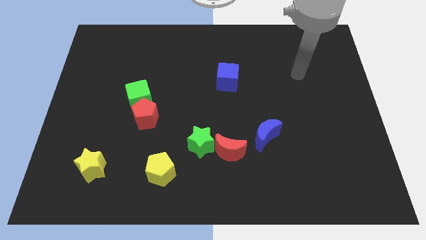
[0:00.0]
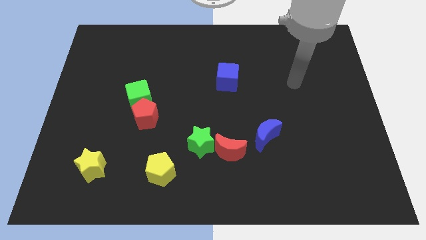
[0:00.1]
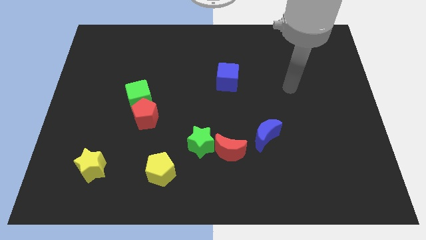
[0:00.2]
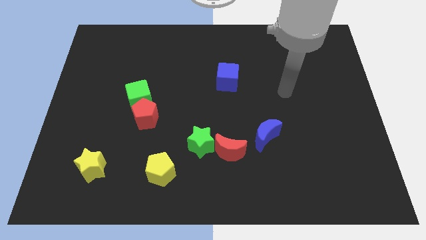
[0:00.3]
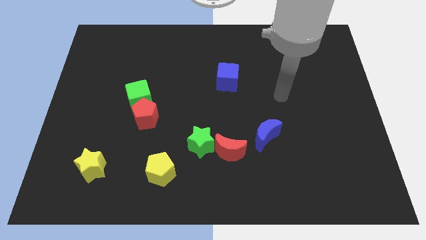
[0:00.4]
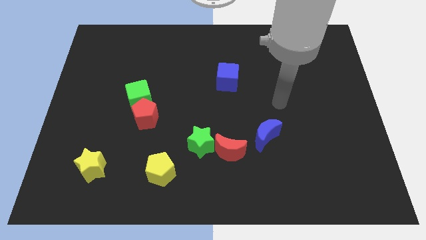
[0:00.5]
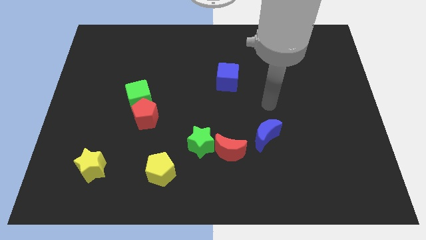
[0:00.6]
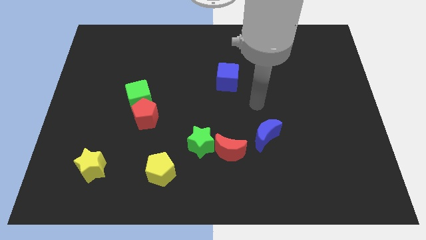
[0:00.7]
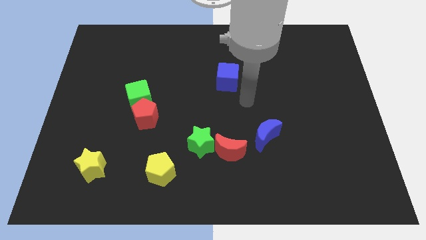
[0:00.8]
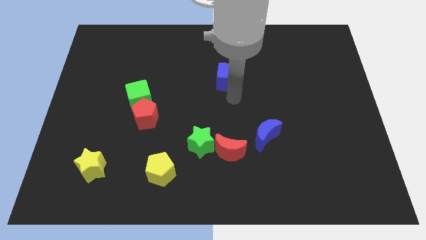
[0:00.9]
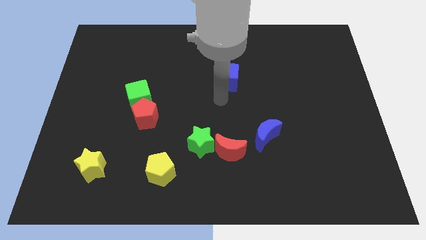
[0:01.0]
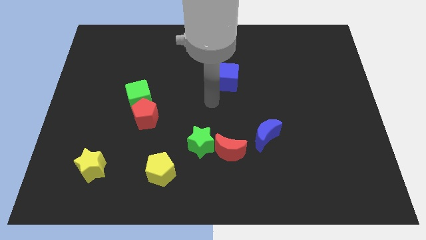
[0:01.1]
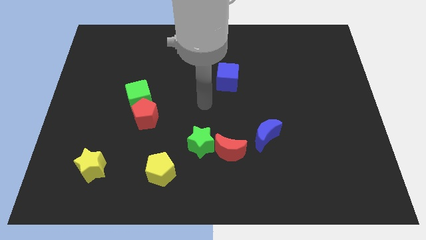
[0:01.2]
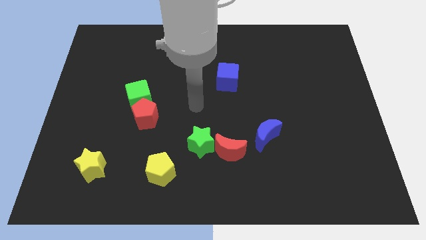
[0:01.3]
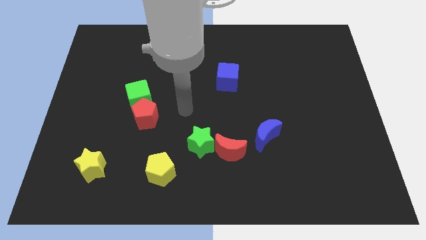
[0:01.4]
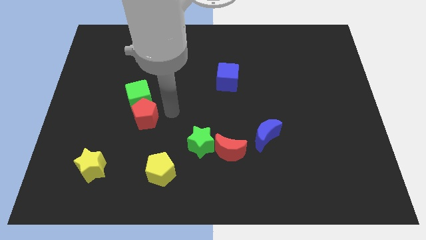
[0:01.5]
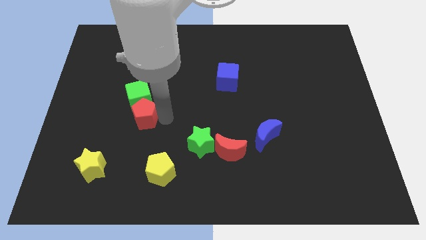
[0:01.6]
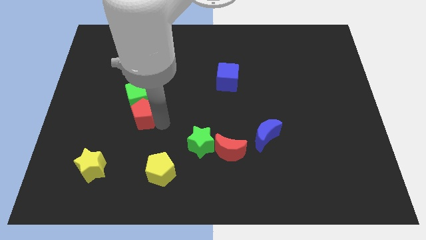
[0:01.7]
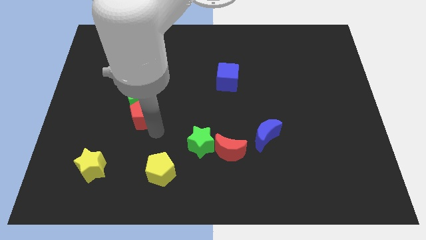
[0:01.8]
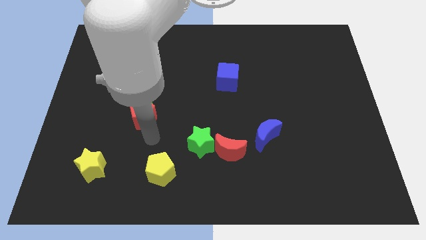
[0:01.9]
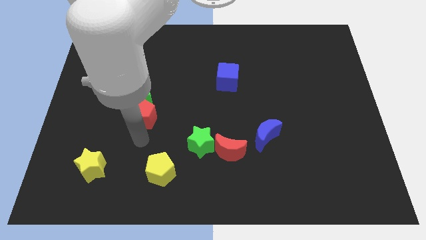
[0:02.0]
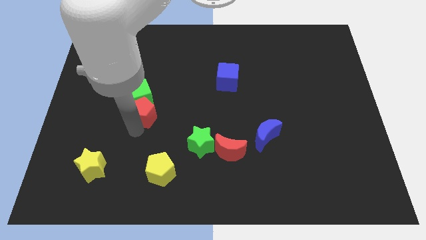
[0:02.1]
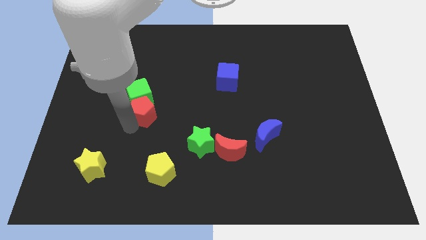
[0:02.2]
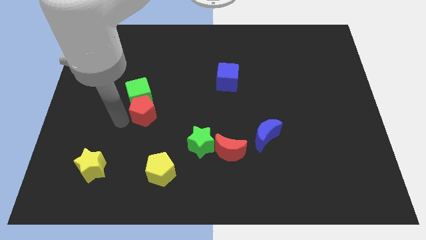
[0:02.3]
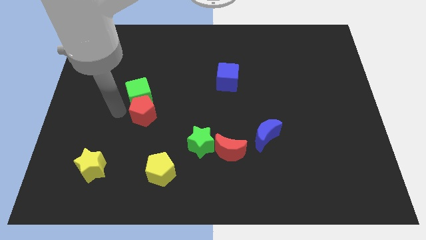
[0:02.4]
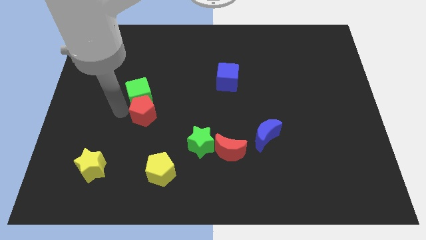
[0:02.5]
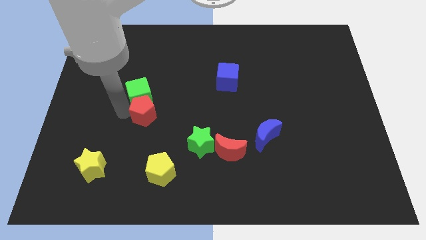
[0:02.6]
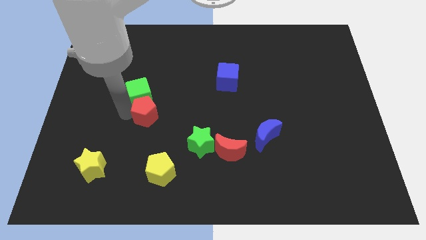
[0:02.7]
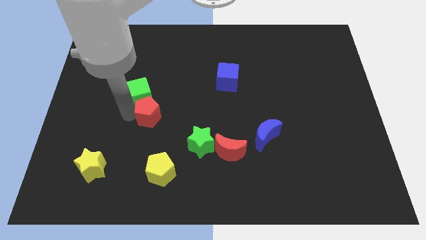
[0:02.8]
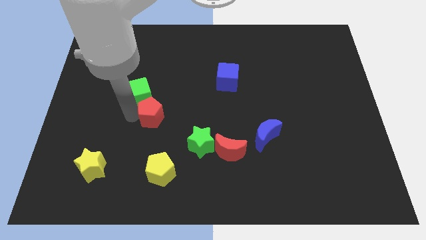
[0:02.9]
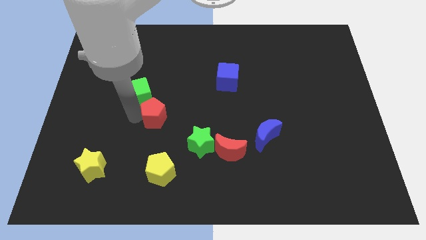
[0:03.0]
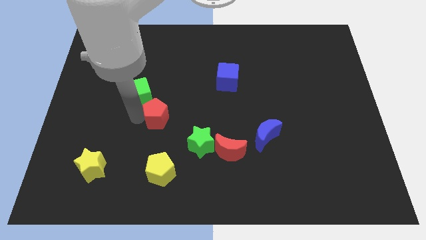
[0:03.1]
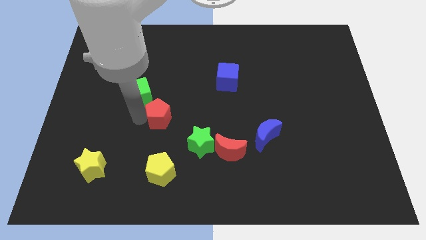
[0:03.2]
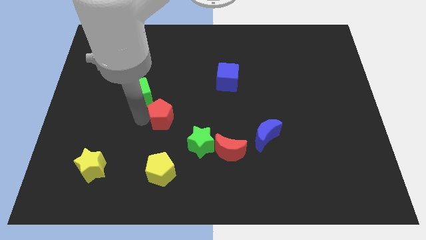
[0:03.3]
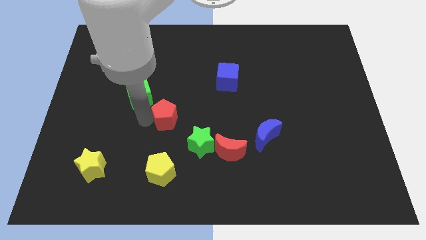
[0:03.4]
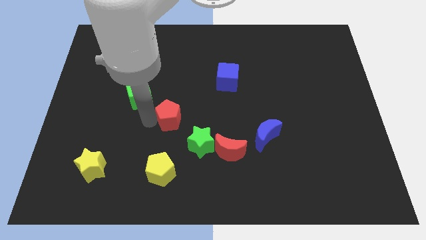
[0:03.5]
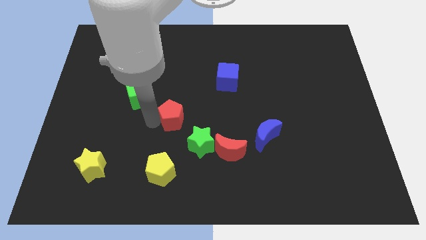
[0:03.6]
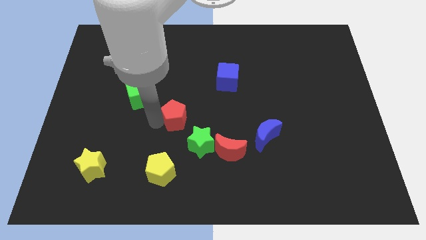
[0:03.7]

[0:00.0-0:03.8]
slightly move the red pentagon to the right

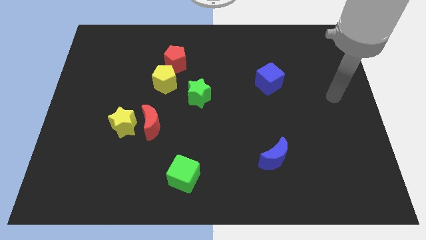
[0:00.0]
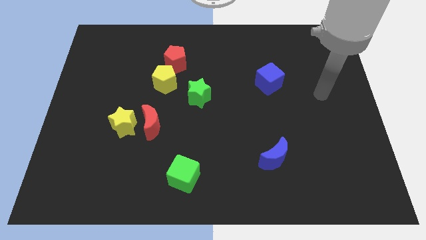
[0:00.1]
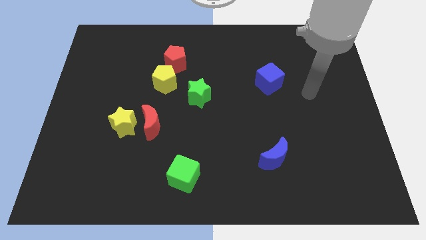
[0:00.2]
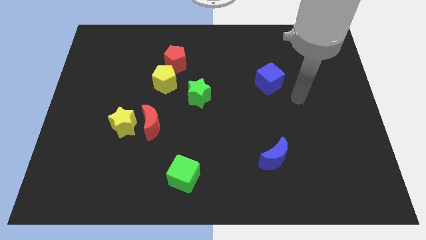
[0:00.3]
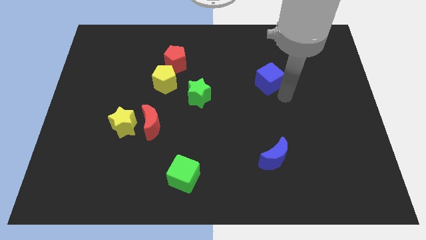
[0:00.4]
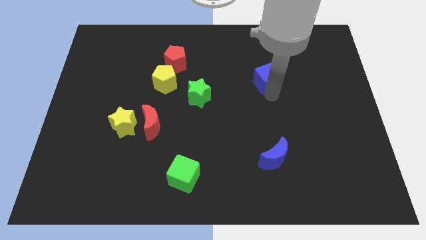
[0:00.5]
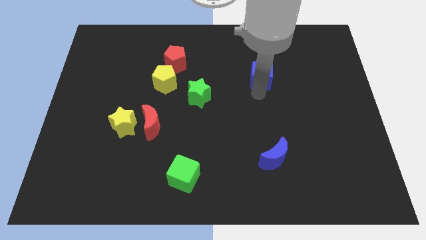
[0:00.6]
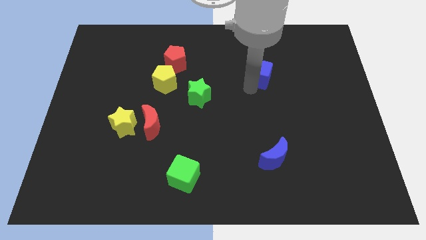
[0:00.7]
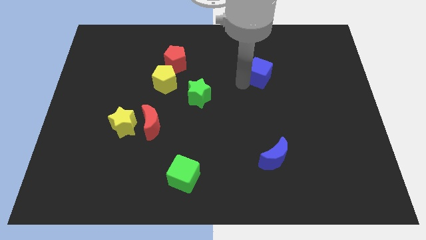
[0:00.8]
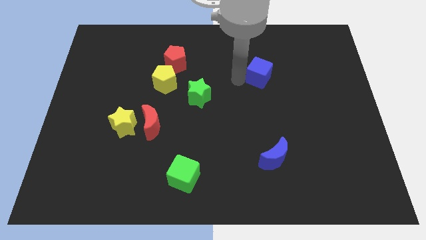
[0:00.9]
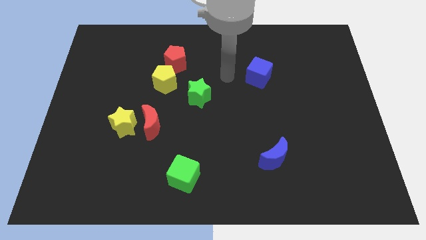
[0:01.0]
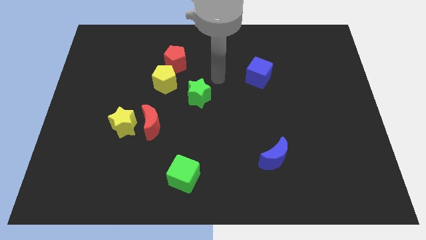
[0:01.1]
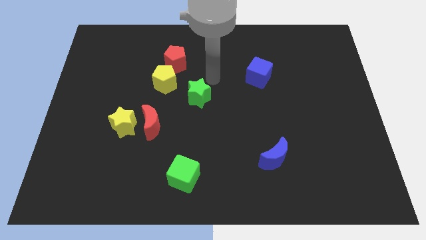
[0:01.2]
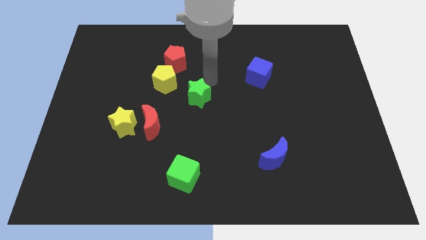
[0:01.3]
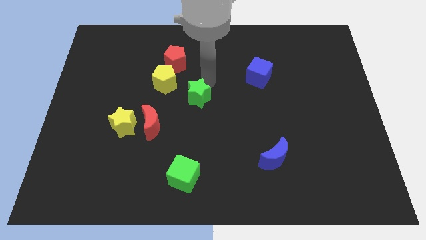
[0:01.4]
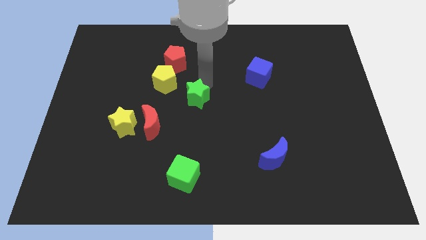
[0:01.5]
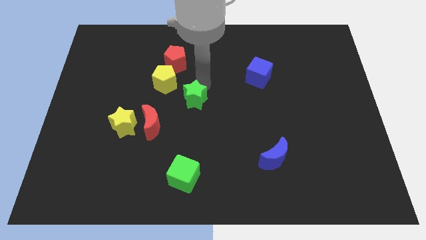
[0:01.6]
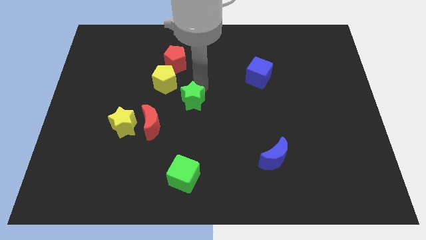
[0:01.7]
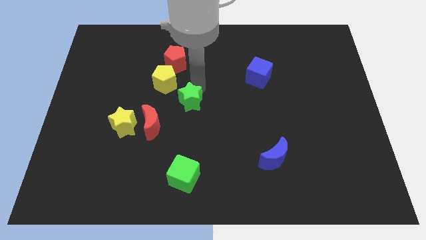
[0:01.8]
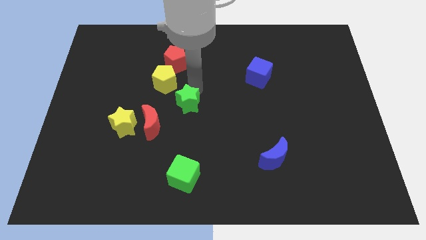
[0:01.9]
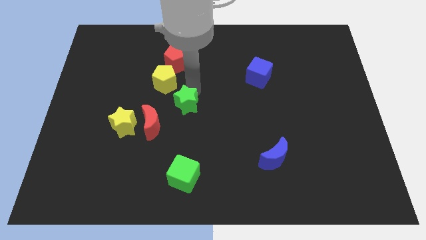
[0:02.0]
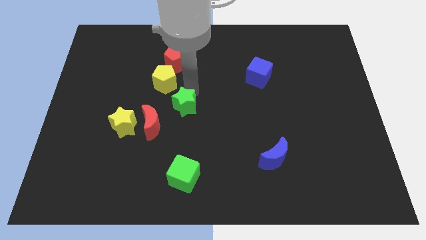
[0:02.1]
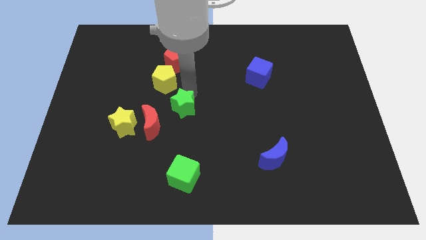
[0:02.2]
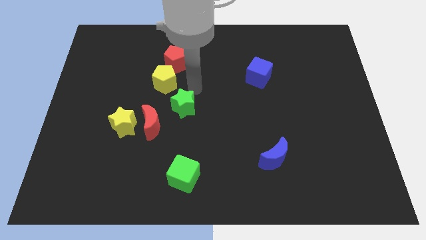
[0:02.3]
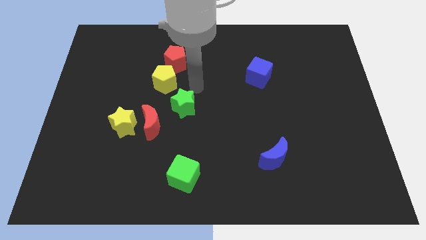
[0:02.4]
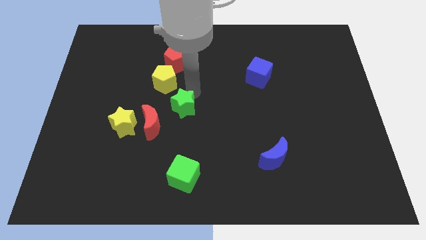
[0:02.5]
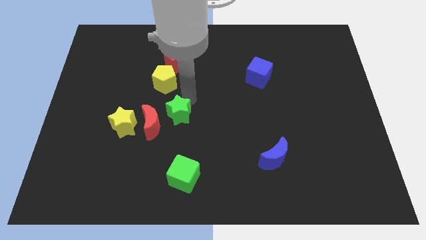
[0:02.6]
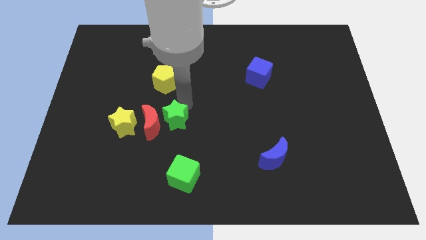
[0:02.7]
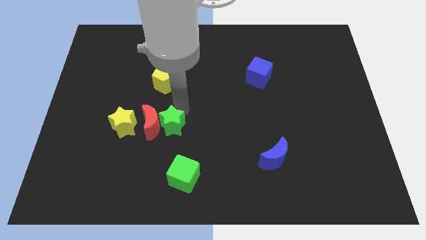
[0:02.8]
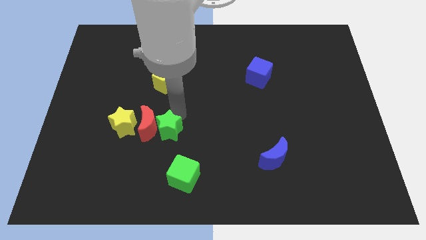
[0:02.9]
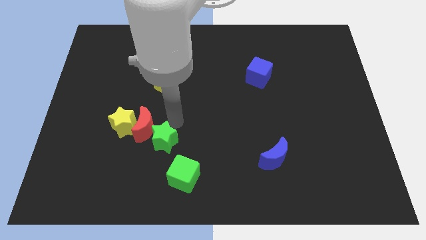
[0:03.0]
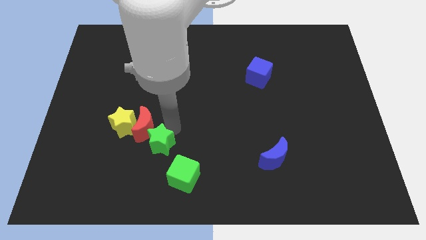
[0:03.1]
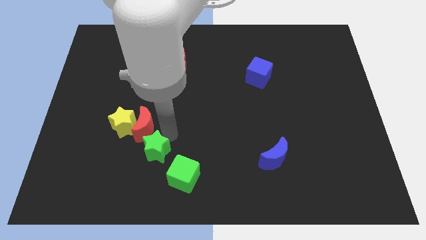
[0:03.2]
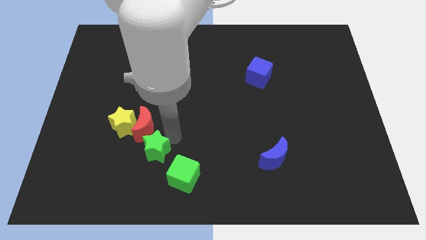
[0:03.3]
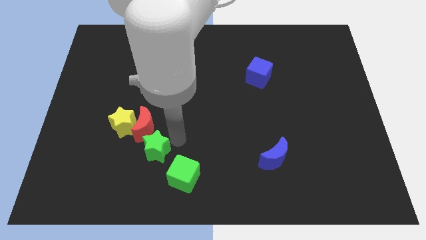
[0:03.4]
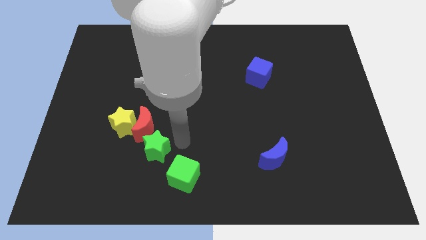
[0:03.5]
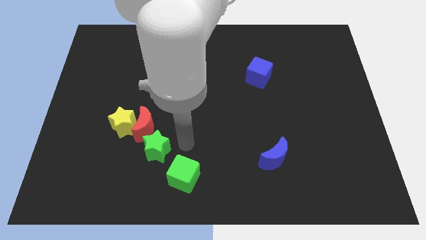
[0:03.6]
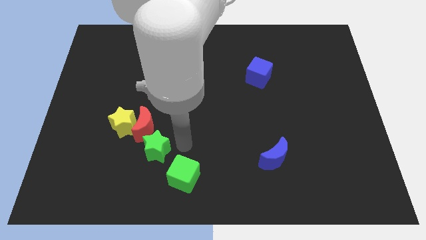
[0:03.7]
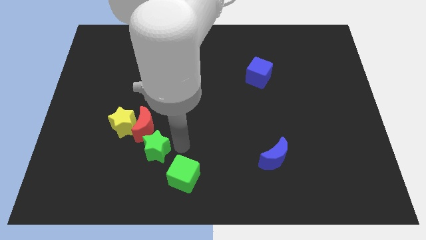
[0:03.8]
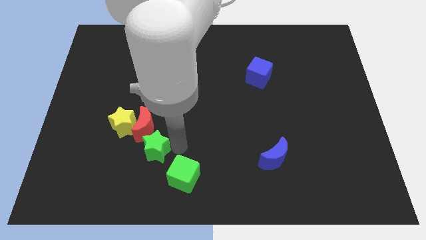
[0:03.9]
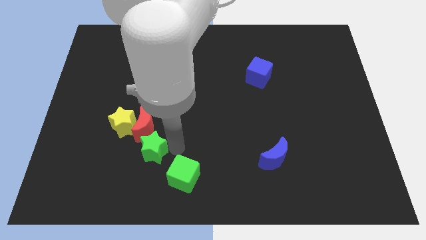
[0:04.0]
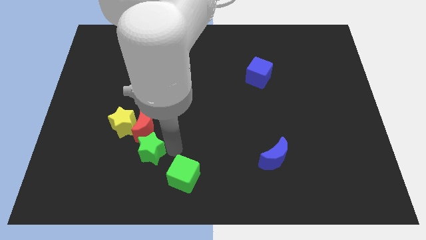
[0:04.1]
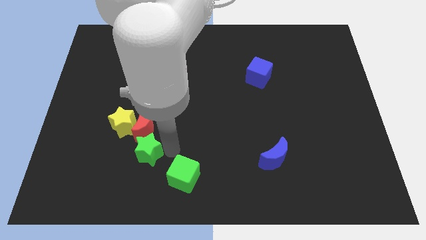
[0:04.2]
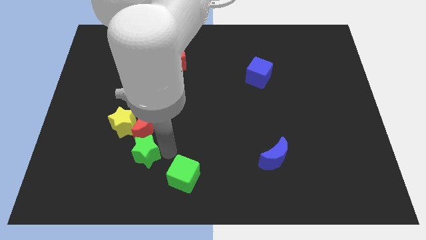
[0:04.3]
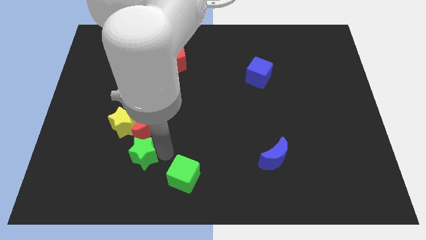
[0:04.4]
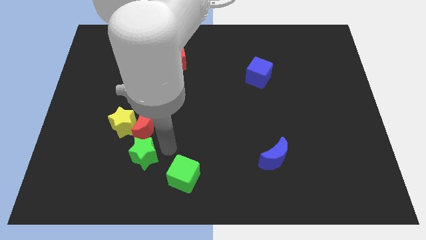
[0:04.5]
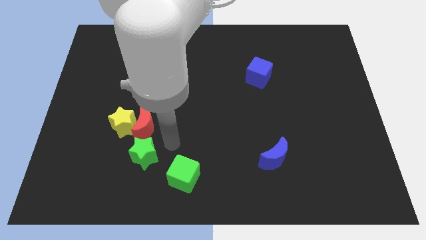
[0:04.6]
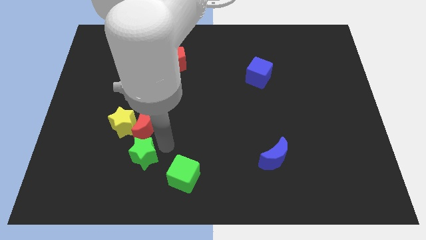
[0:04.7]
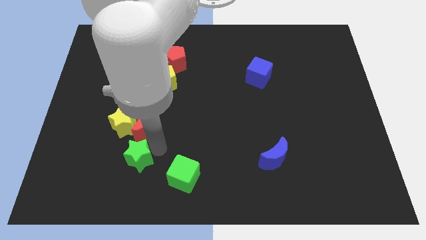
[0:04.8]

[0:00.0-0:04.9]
push the green star down and then left
